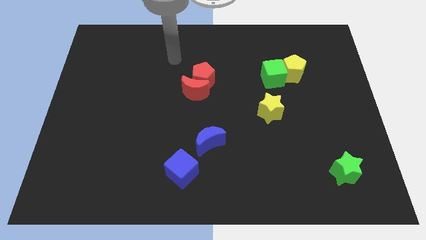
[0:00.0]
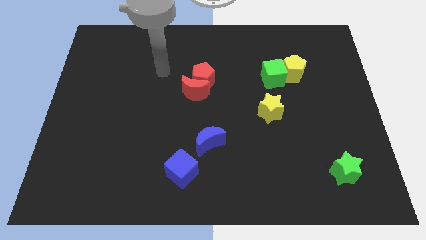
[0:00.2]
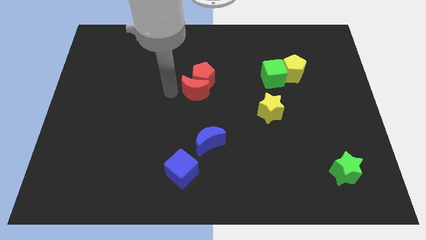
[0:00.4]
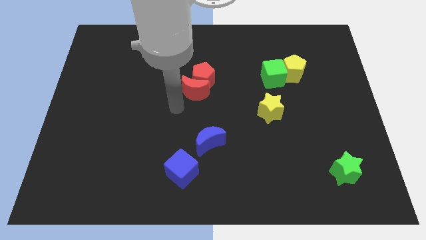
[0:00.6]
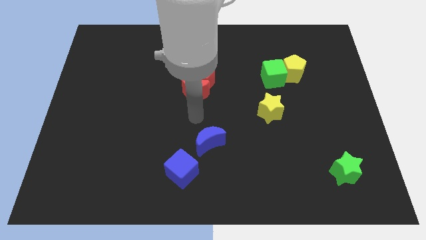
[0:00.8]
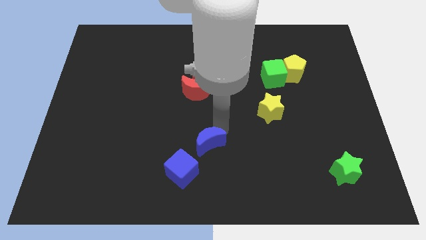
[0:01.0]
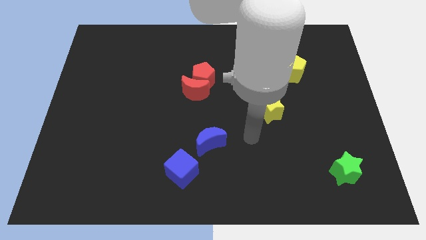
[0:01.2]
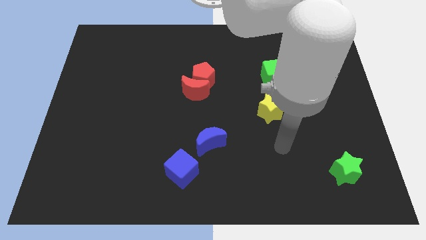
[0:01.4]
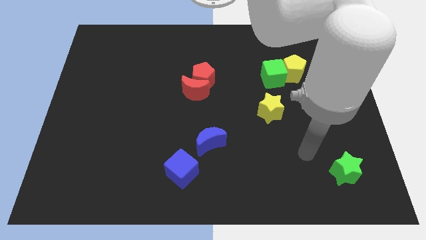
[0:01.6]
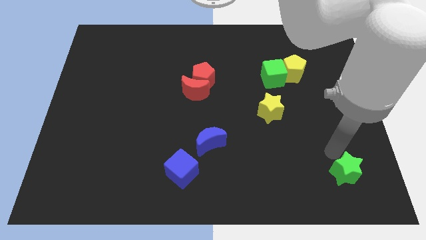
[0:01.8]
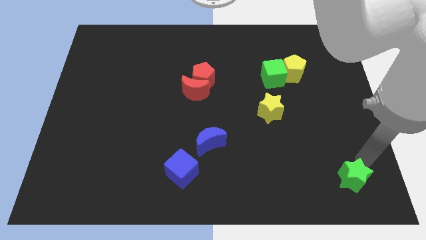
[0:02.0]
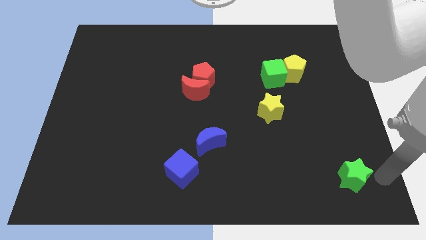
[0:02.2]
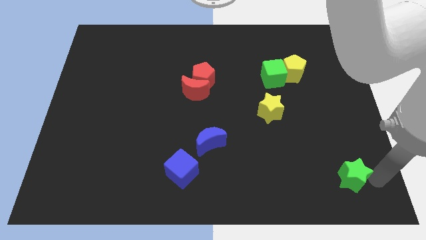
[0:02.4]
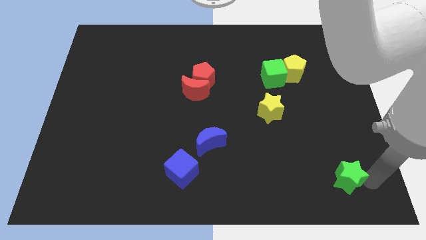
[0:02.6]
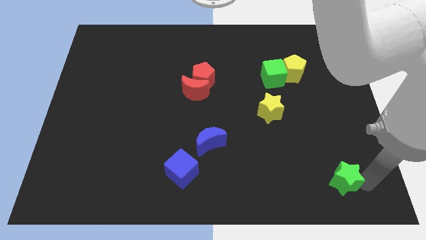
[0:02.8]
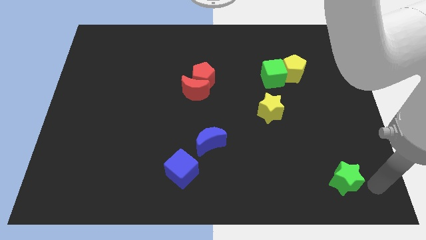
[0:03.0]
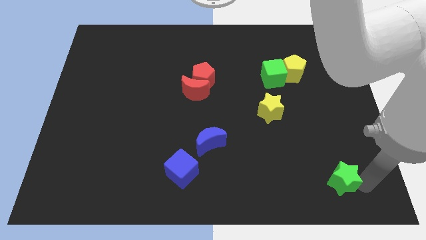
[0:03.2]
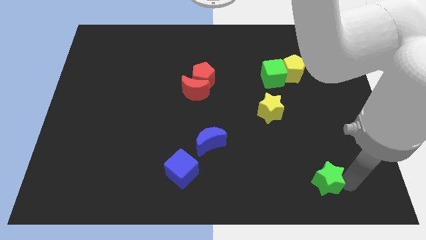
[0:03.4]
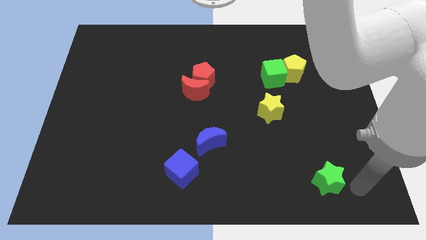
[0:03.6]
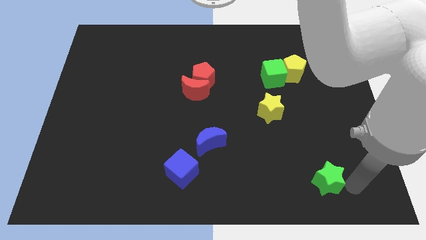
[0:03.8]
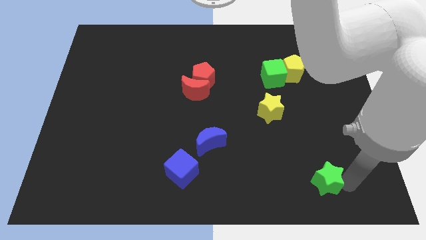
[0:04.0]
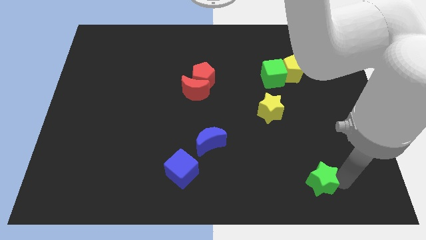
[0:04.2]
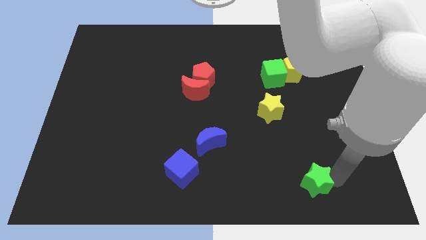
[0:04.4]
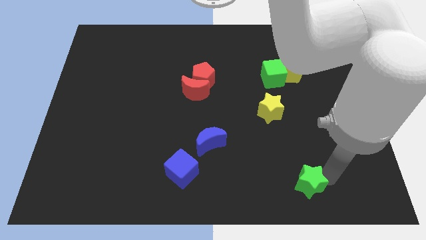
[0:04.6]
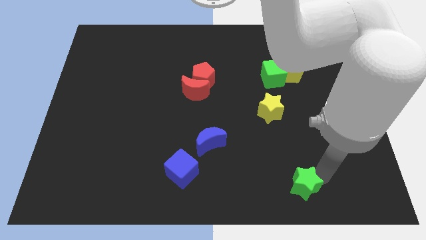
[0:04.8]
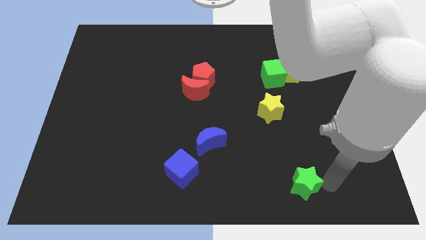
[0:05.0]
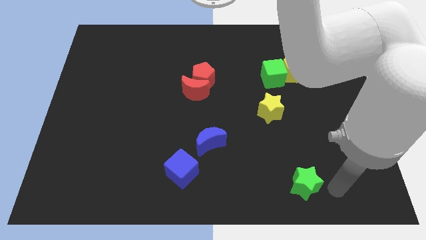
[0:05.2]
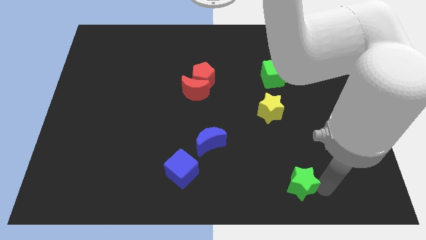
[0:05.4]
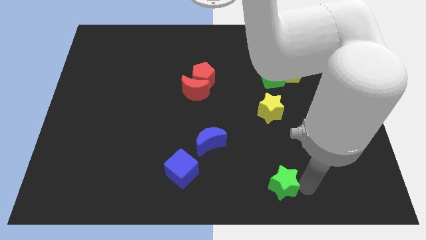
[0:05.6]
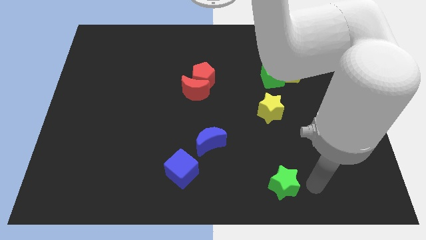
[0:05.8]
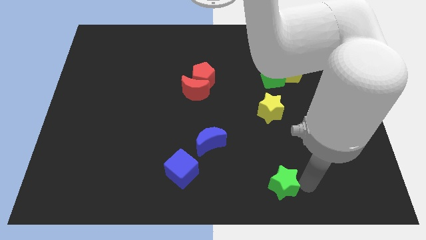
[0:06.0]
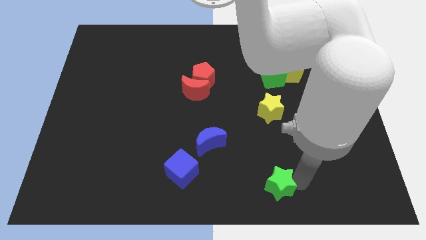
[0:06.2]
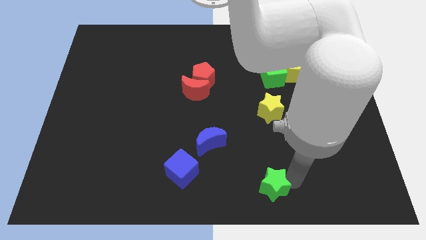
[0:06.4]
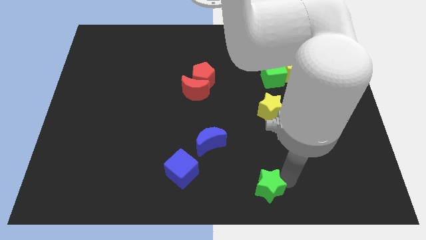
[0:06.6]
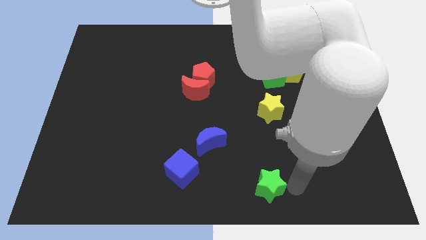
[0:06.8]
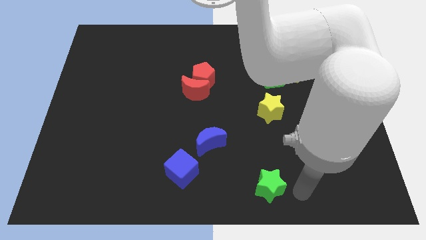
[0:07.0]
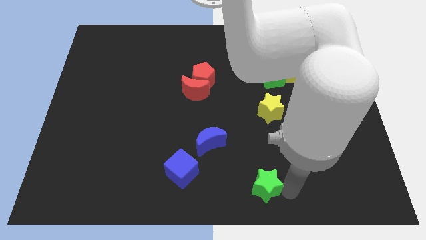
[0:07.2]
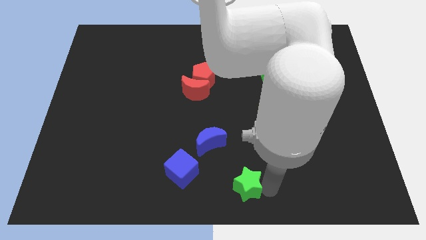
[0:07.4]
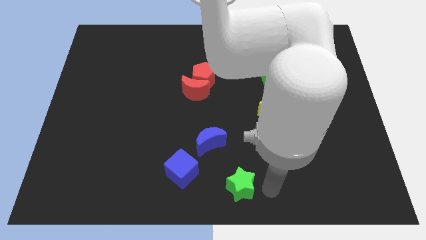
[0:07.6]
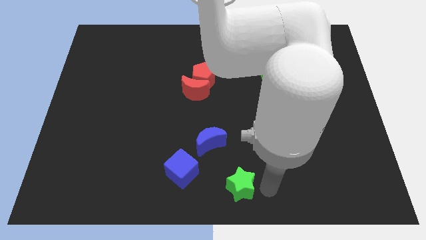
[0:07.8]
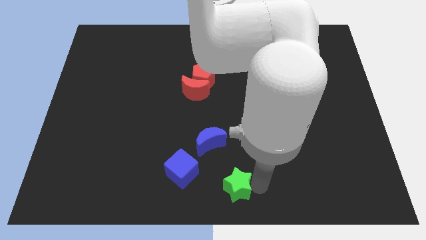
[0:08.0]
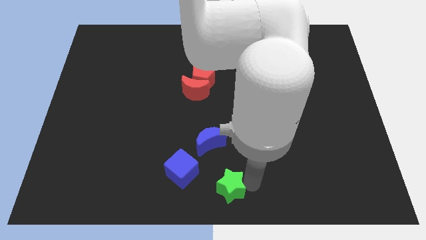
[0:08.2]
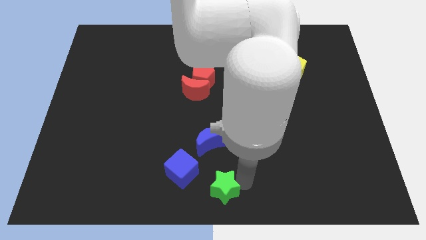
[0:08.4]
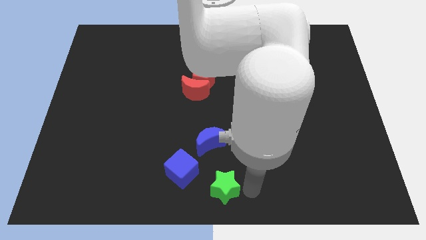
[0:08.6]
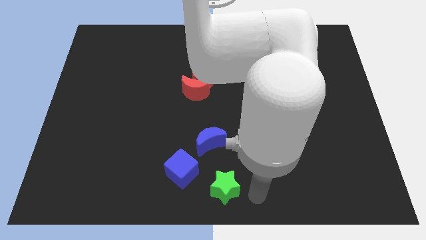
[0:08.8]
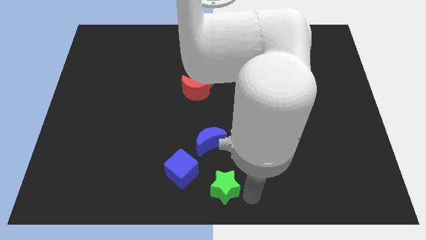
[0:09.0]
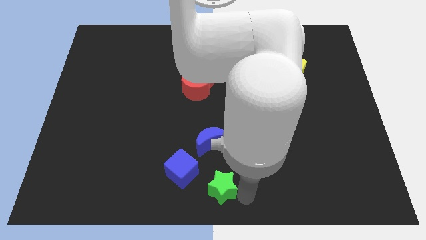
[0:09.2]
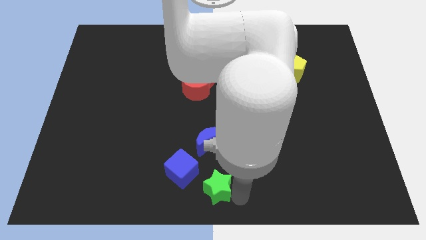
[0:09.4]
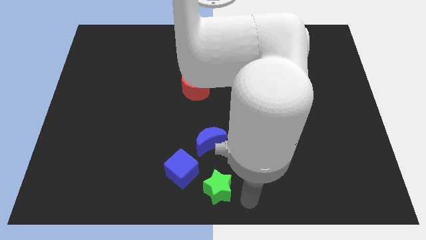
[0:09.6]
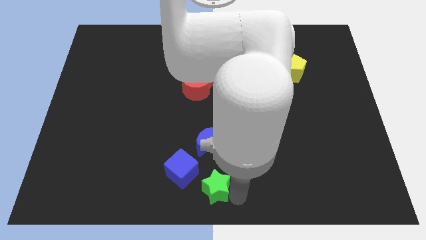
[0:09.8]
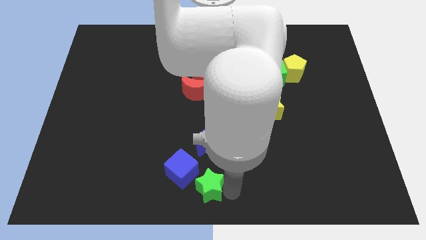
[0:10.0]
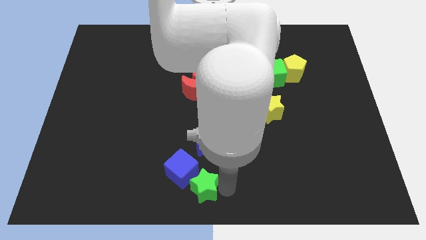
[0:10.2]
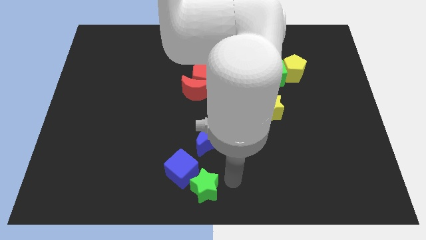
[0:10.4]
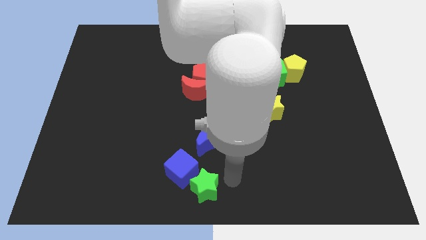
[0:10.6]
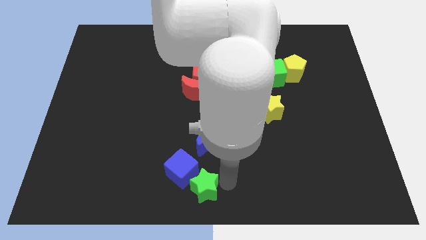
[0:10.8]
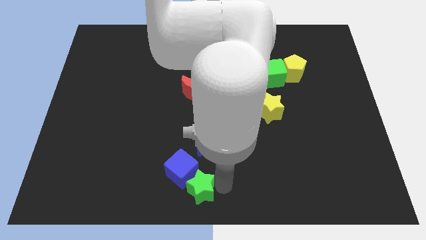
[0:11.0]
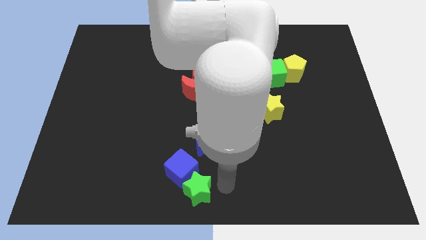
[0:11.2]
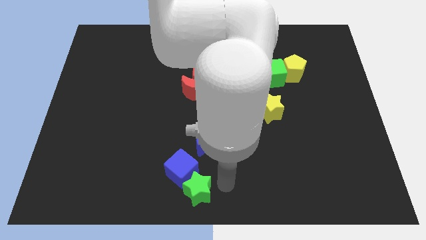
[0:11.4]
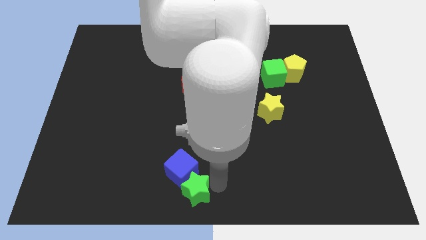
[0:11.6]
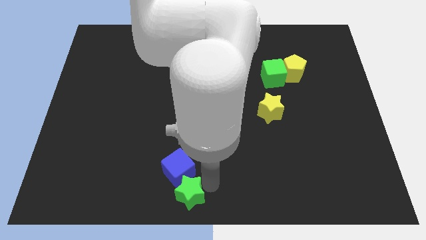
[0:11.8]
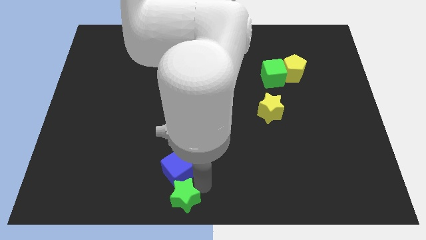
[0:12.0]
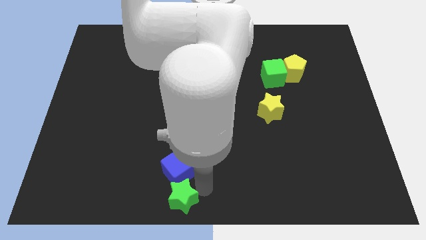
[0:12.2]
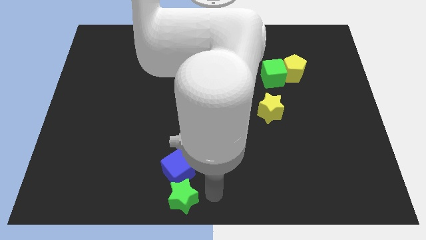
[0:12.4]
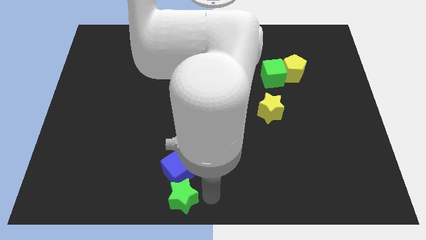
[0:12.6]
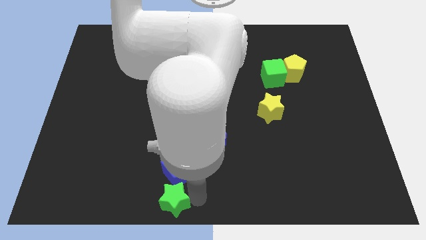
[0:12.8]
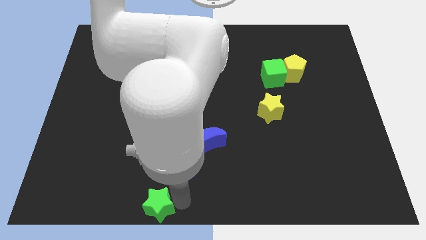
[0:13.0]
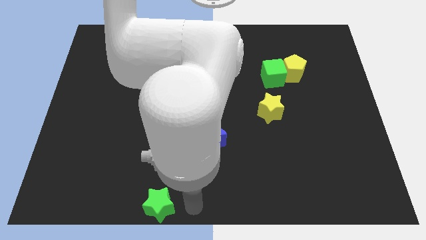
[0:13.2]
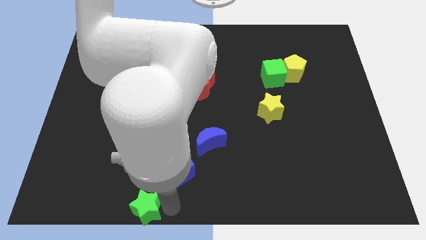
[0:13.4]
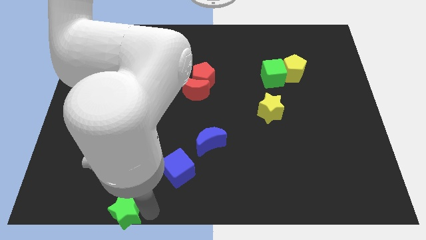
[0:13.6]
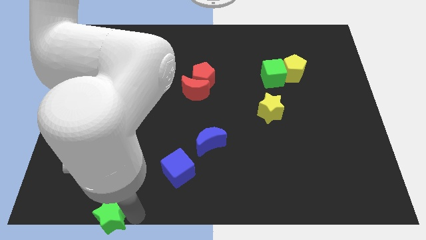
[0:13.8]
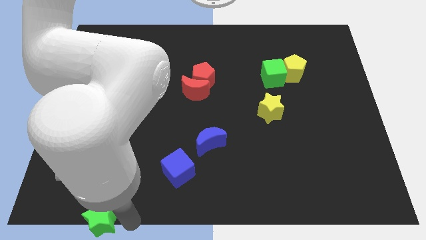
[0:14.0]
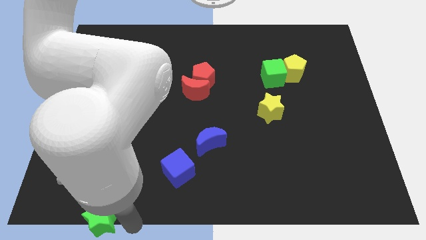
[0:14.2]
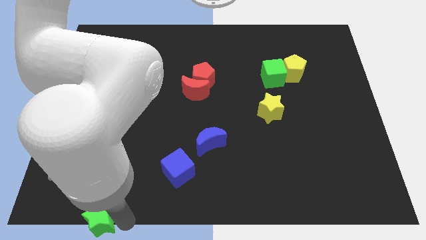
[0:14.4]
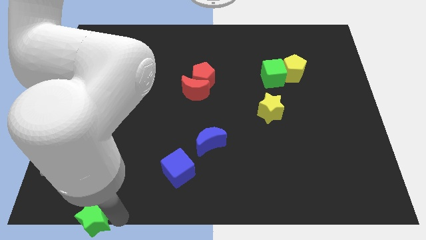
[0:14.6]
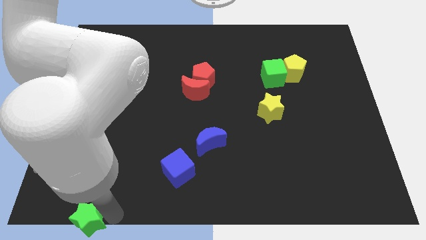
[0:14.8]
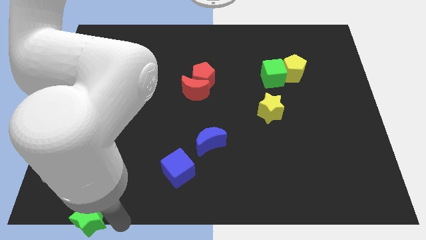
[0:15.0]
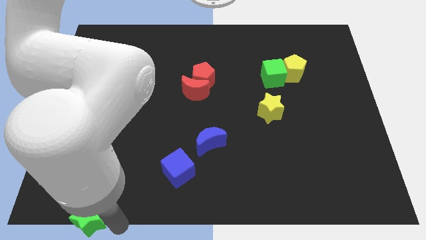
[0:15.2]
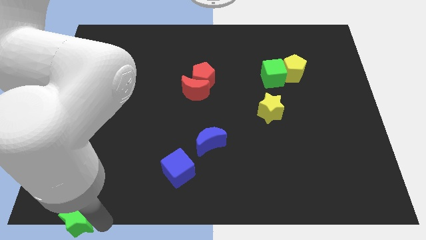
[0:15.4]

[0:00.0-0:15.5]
slide the green star to the lower left corner

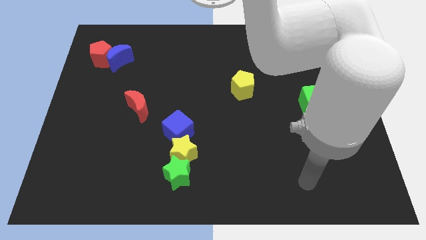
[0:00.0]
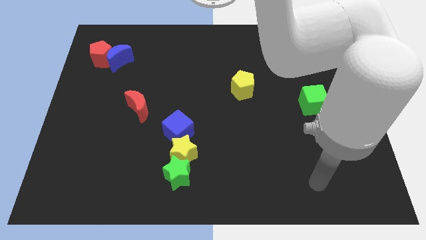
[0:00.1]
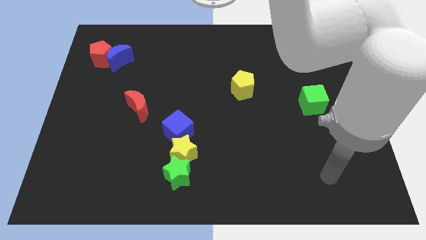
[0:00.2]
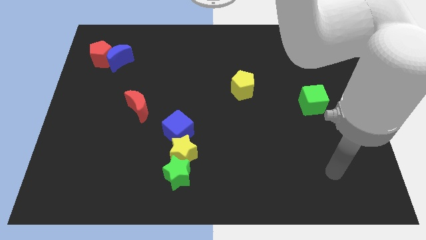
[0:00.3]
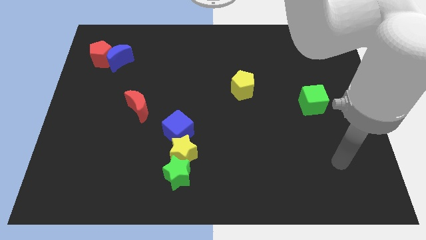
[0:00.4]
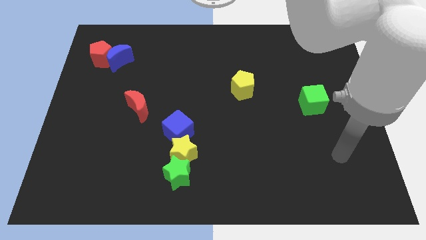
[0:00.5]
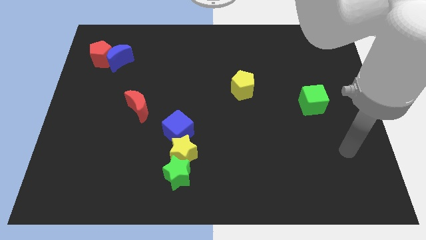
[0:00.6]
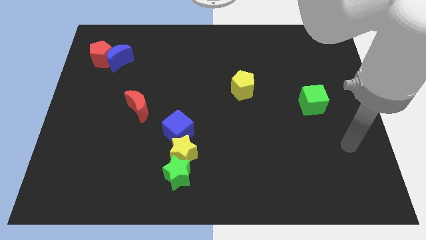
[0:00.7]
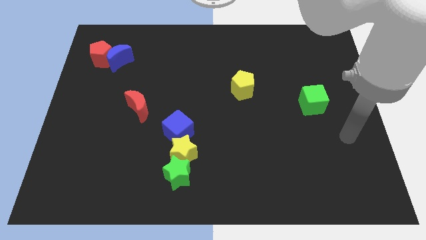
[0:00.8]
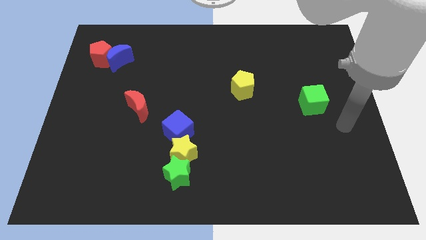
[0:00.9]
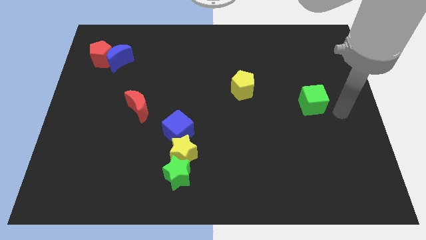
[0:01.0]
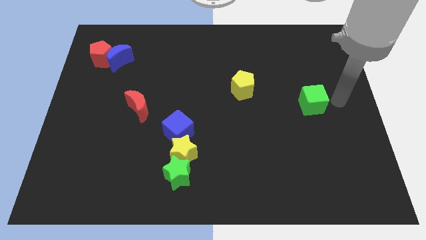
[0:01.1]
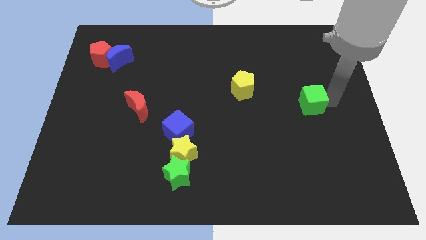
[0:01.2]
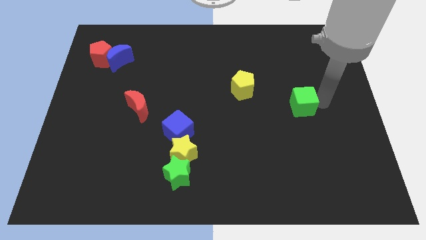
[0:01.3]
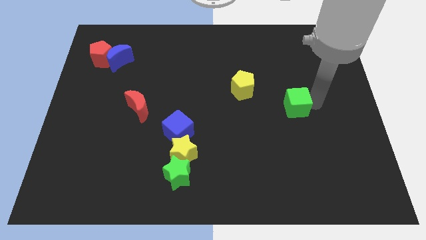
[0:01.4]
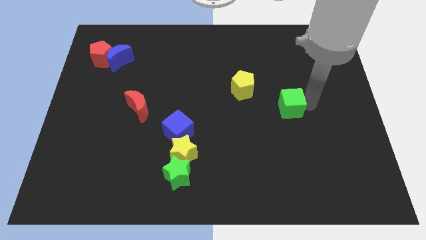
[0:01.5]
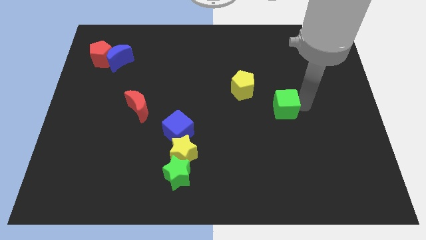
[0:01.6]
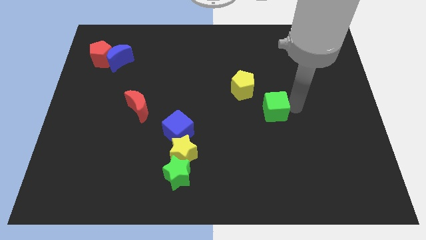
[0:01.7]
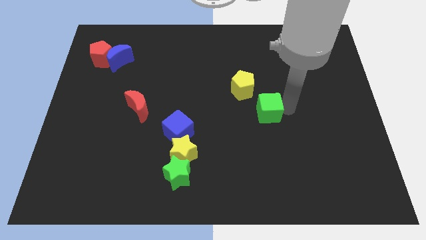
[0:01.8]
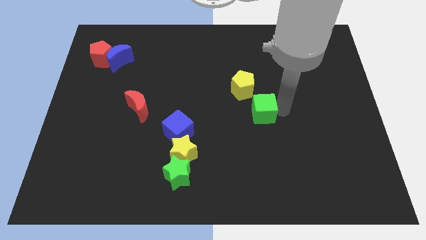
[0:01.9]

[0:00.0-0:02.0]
push the green cube to the middle of the board
